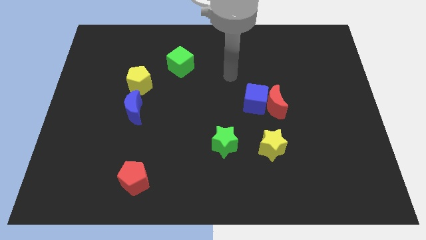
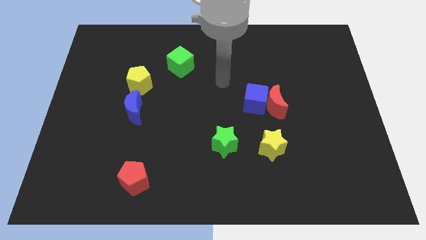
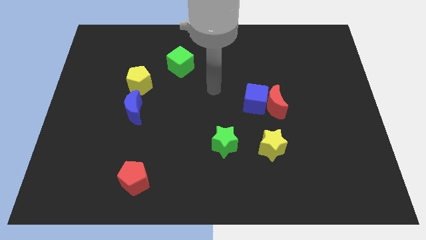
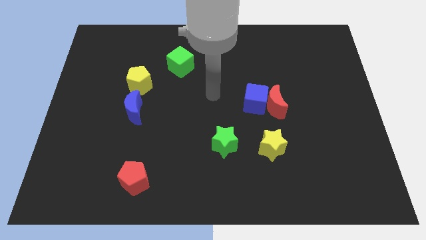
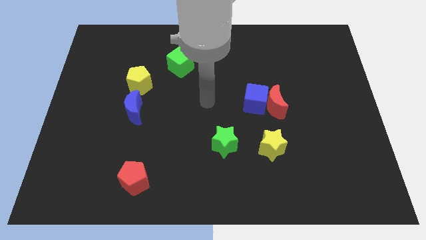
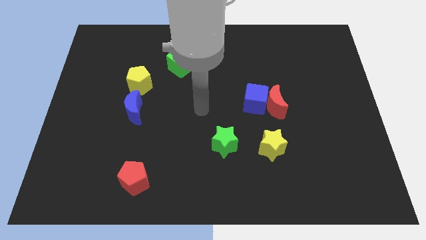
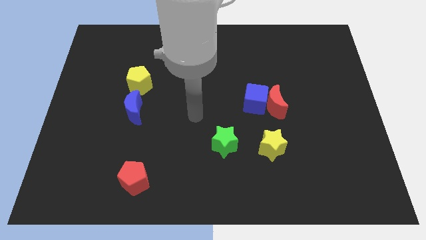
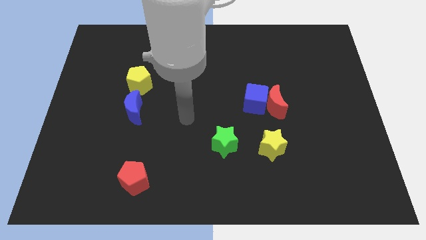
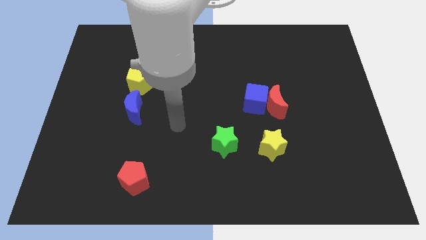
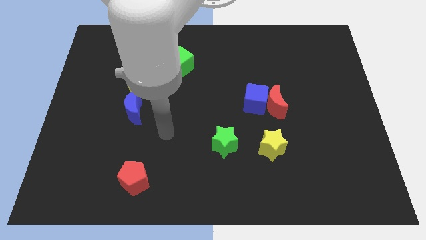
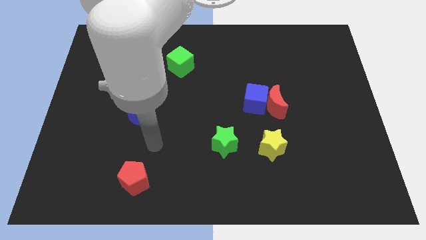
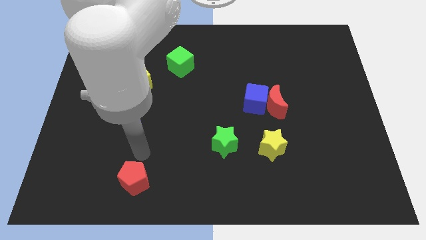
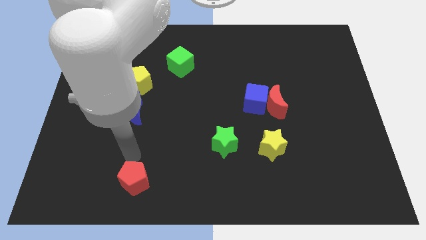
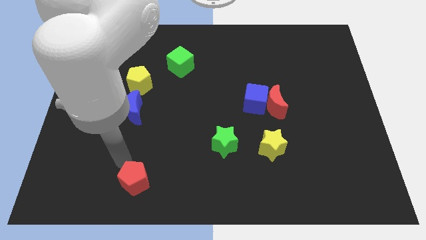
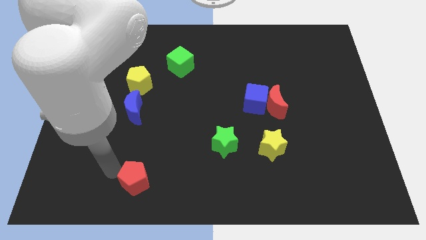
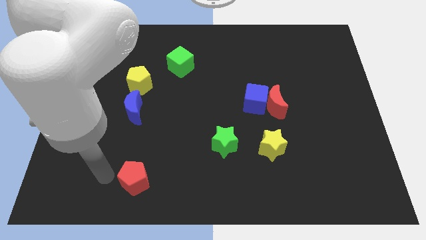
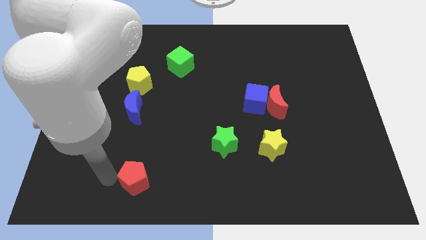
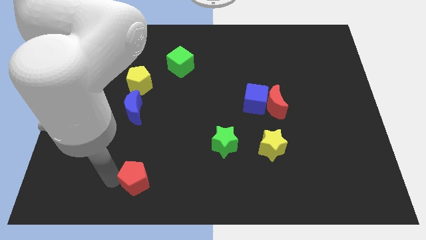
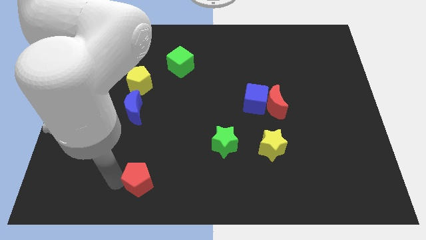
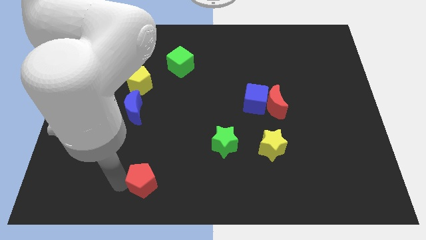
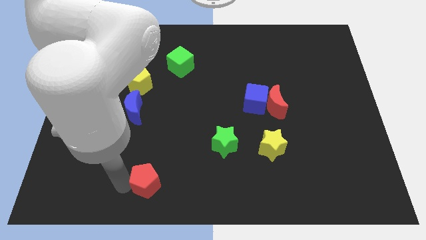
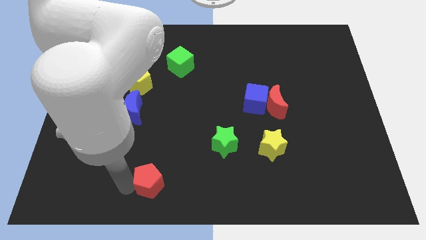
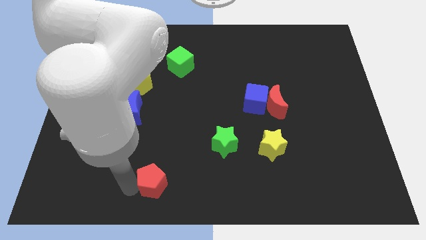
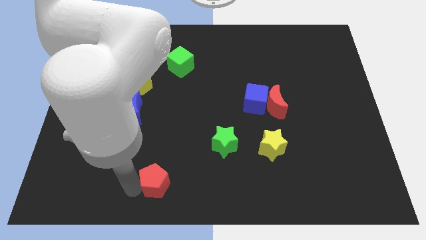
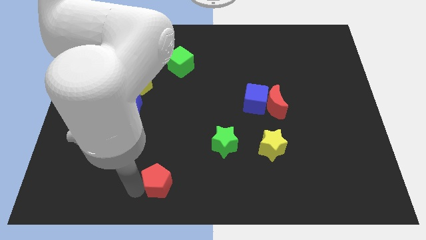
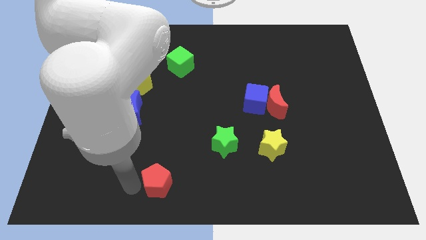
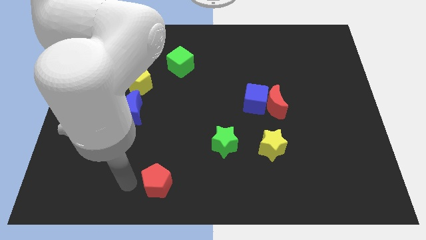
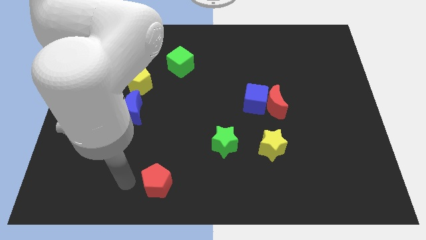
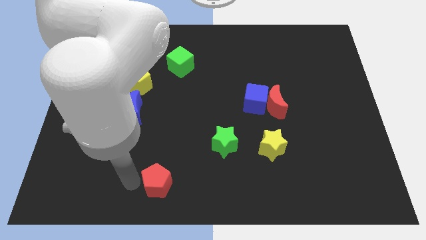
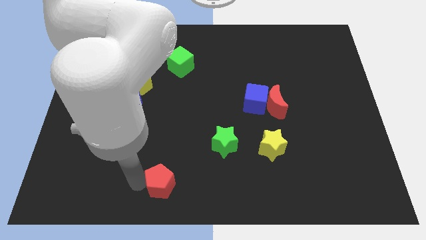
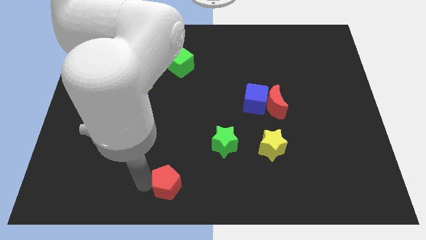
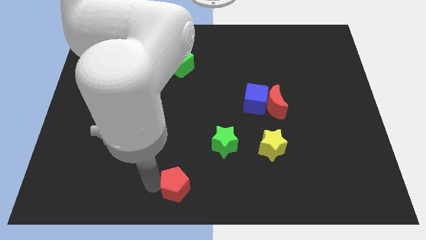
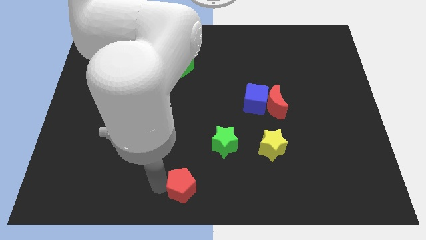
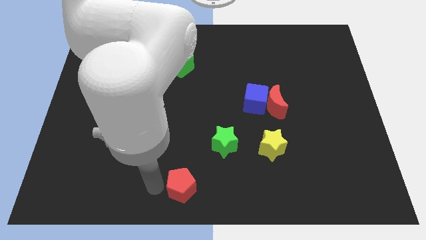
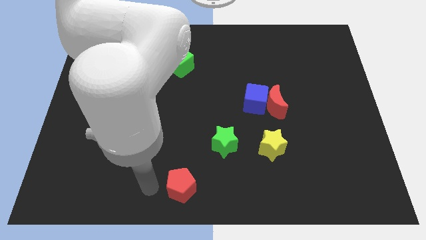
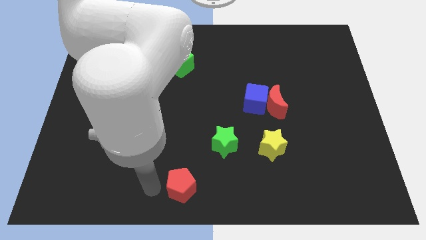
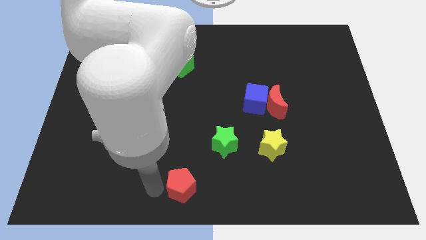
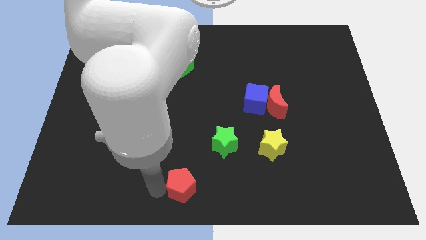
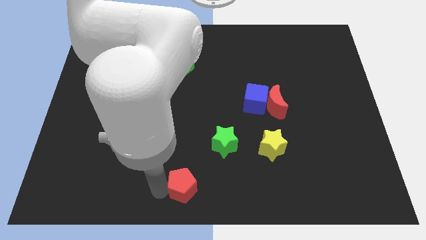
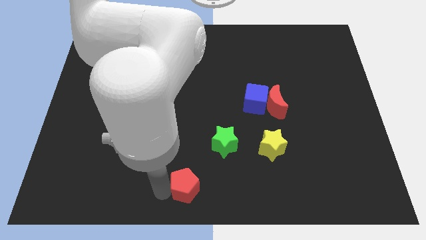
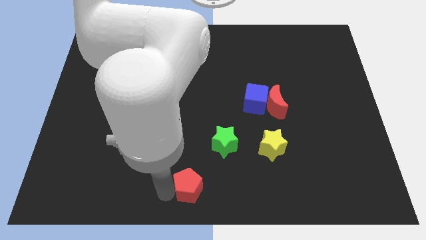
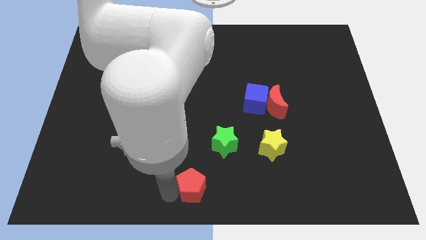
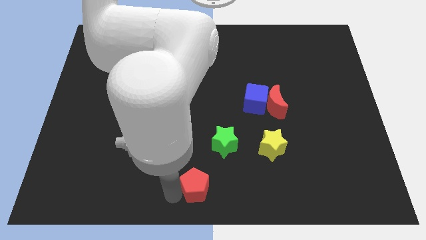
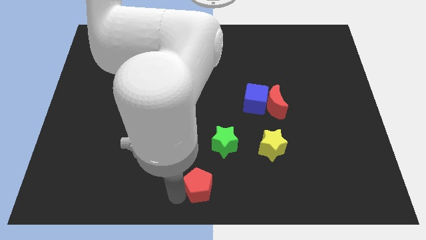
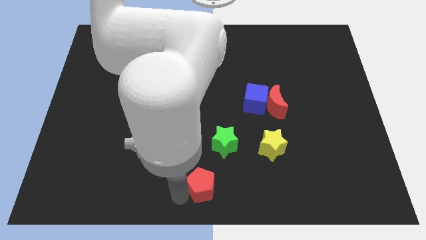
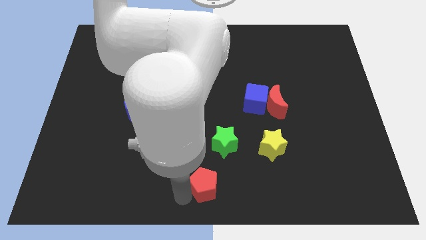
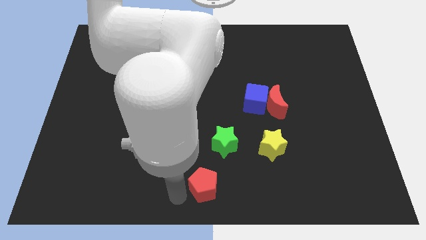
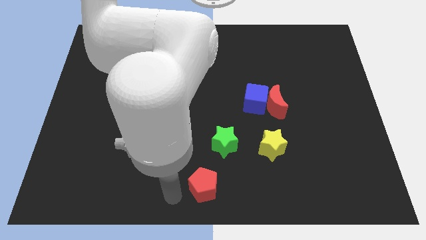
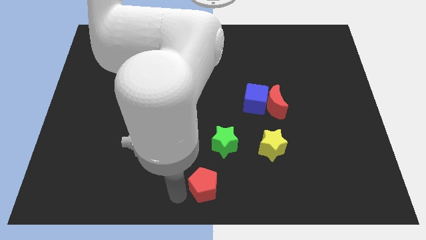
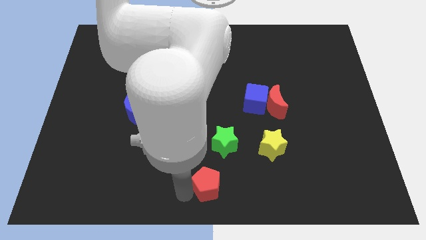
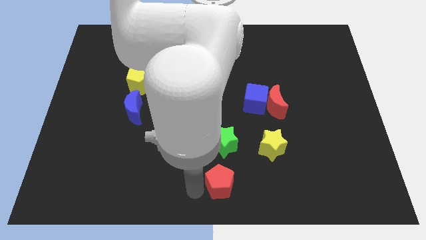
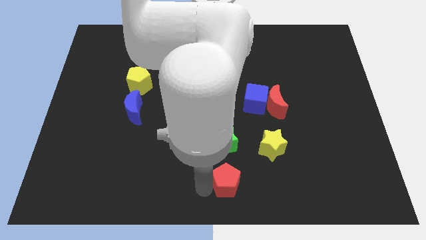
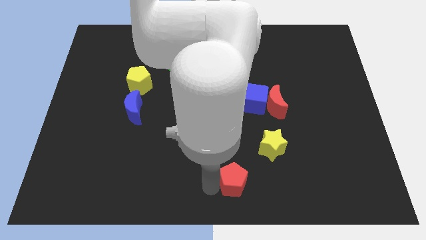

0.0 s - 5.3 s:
move the red pentagon right

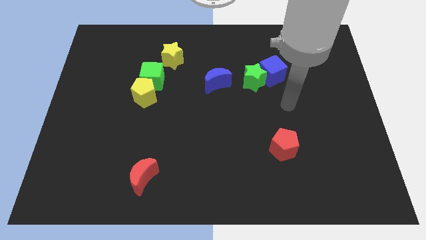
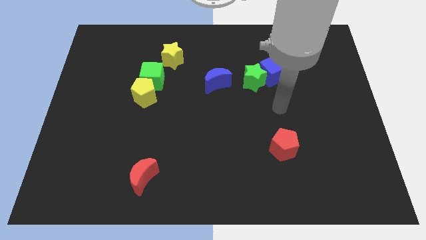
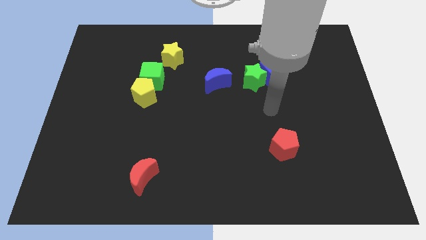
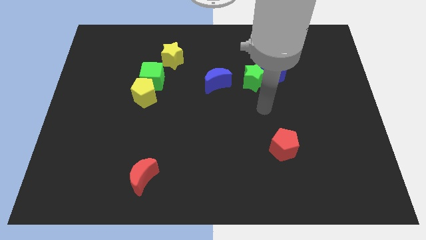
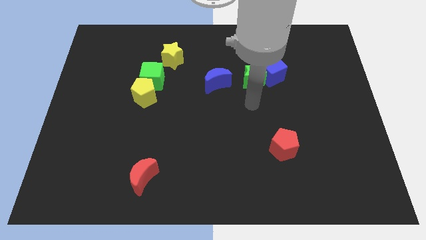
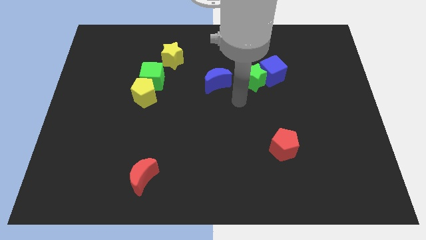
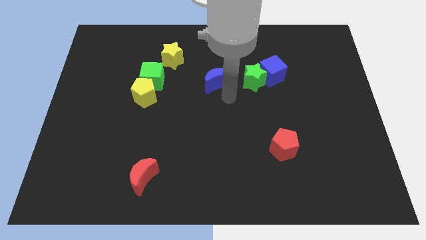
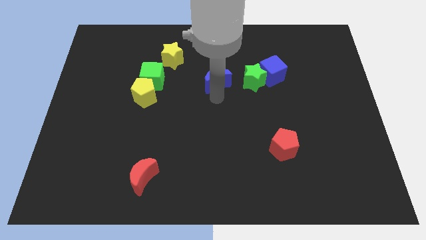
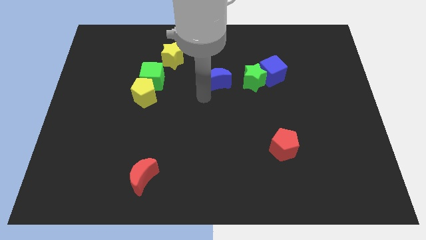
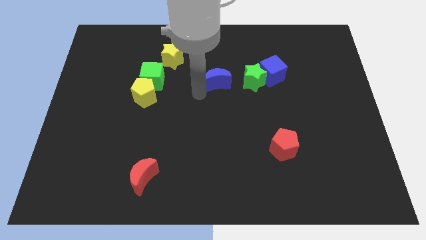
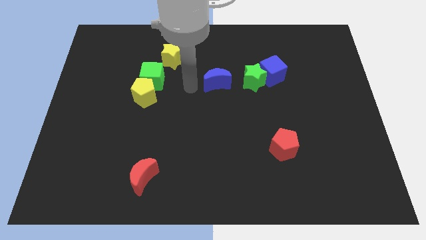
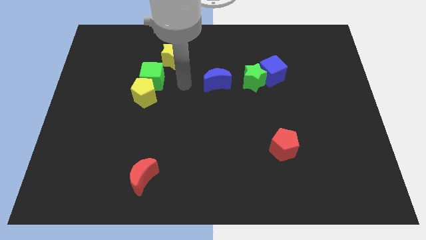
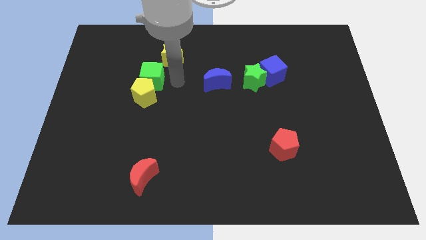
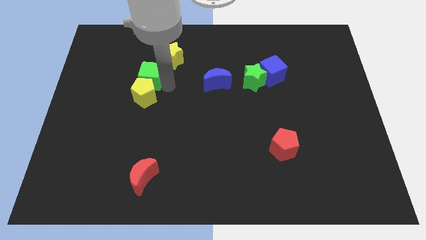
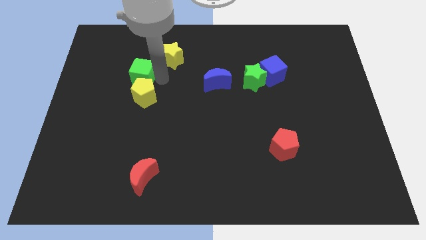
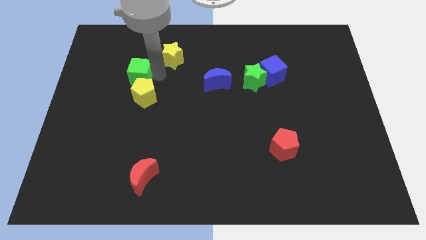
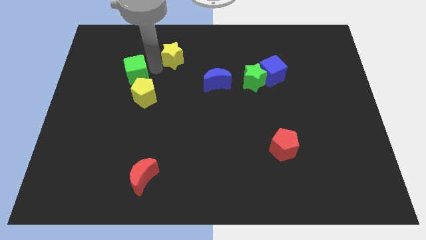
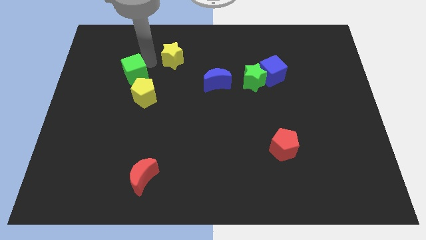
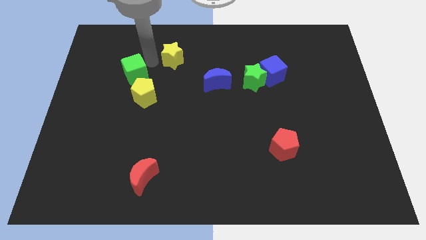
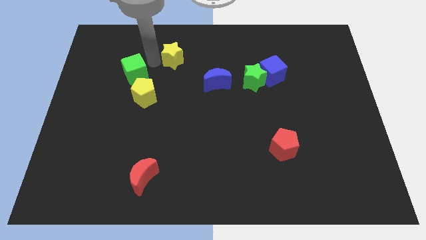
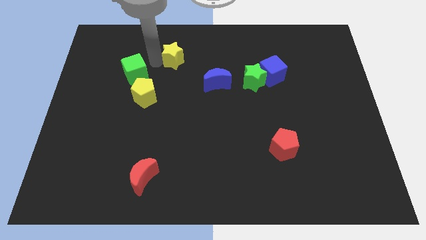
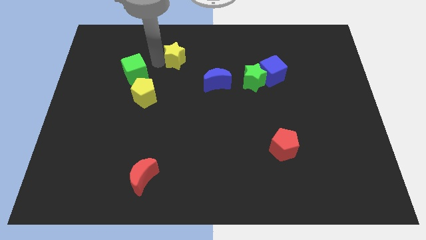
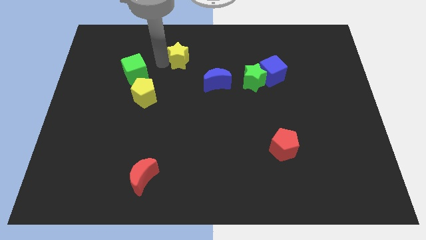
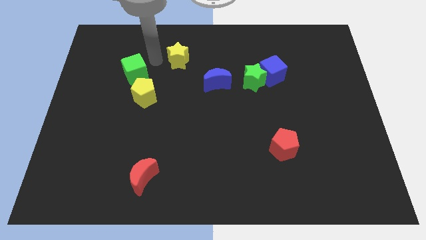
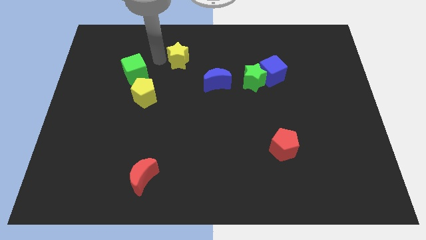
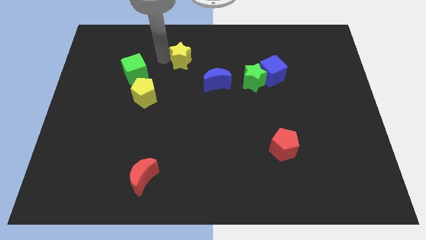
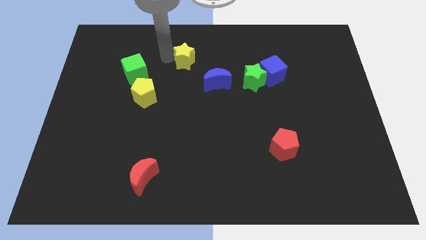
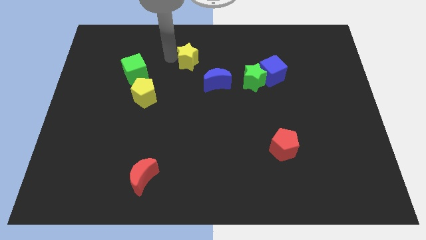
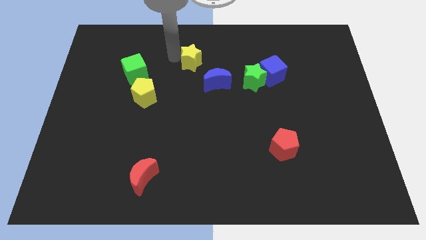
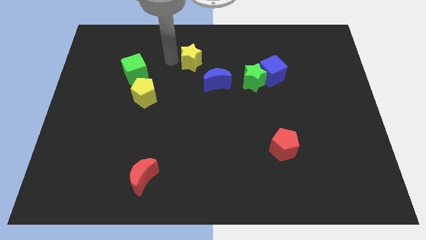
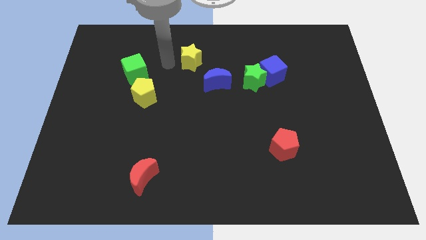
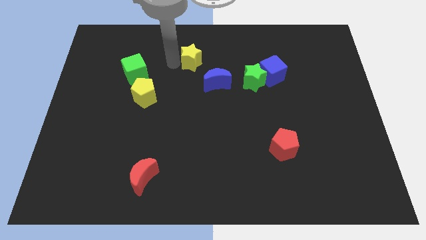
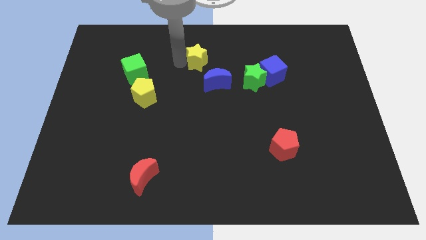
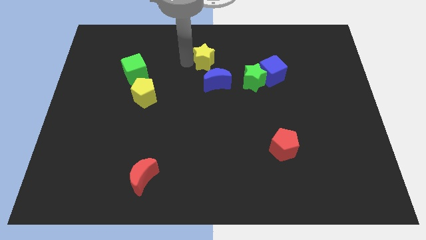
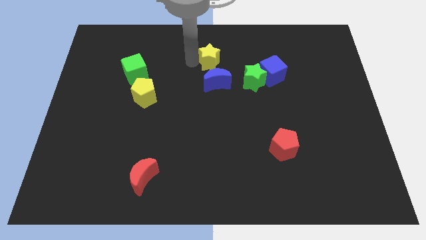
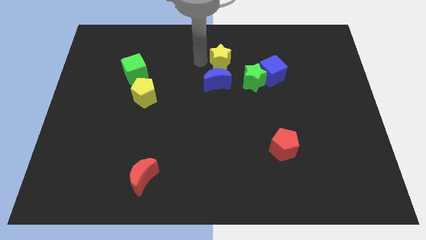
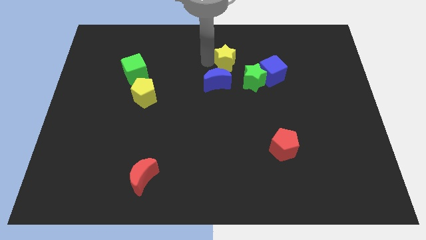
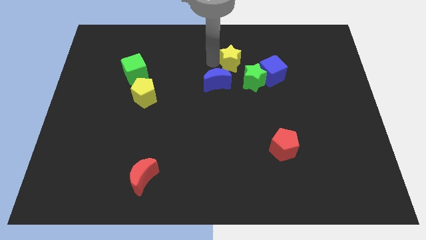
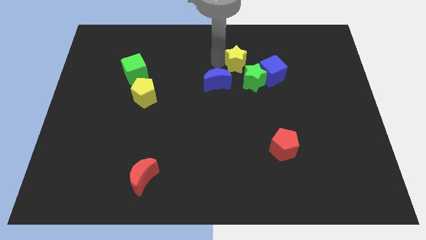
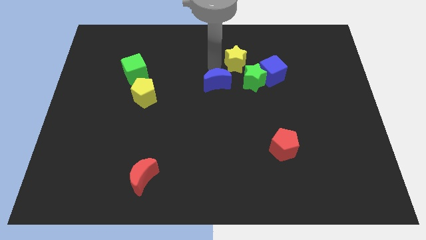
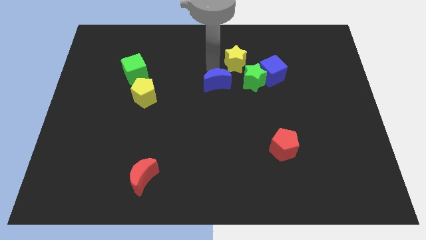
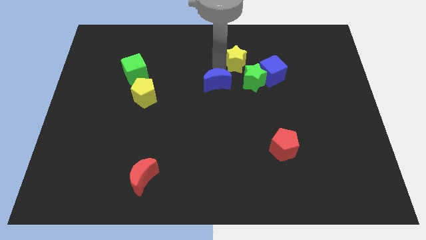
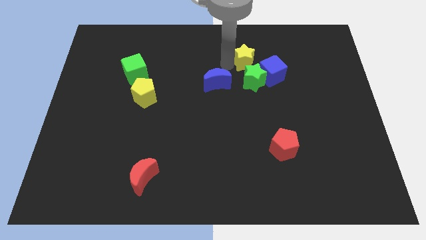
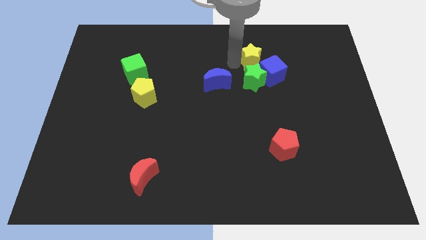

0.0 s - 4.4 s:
move the yellow star to the right
